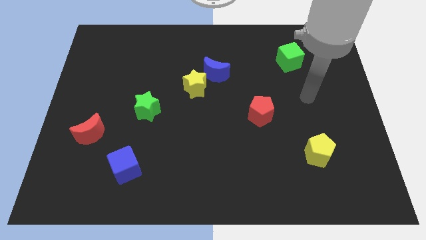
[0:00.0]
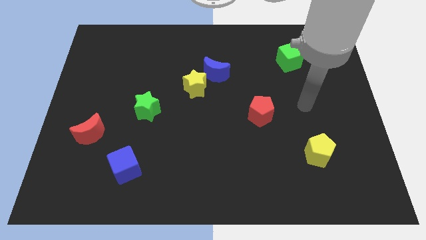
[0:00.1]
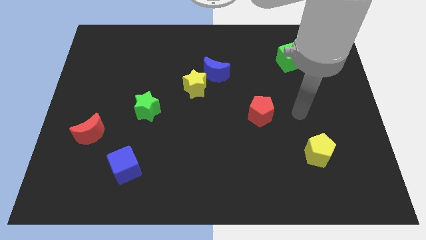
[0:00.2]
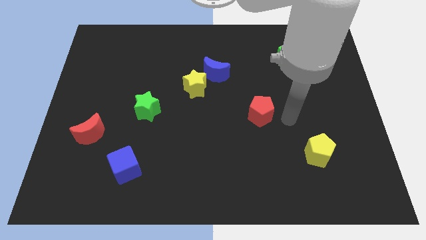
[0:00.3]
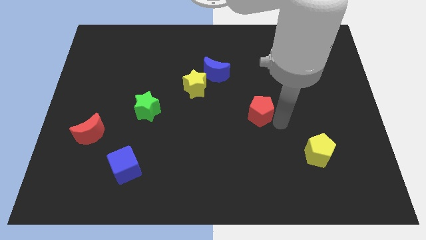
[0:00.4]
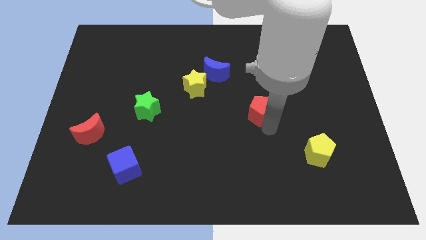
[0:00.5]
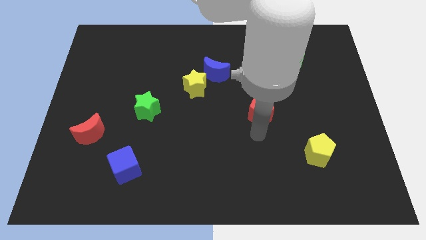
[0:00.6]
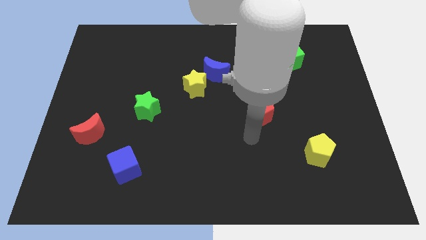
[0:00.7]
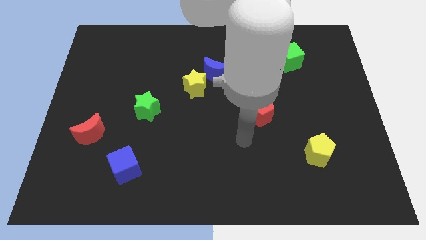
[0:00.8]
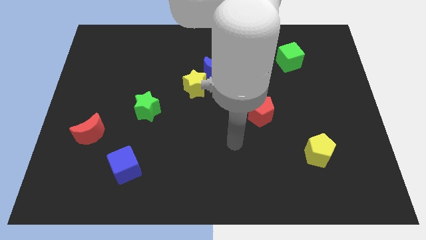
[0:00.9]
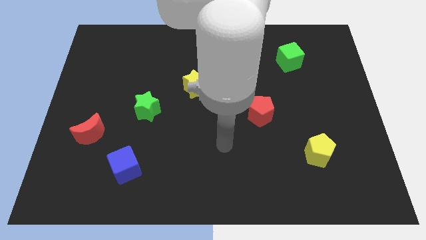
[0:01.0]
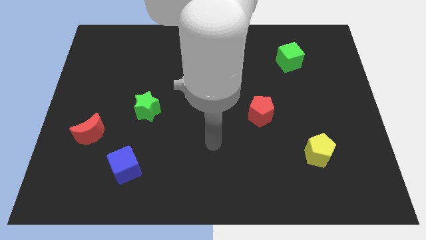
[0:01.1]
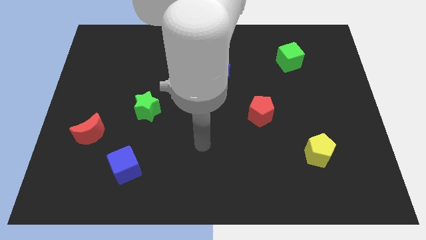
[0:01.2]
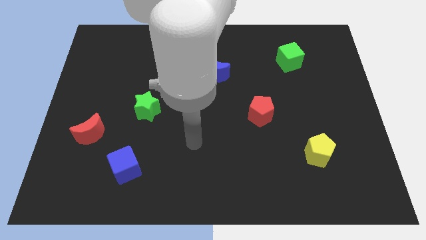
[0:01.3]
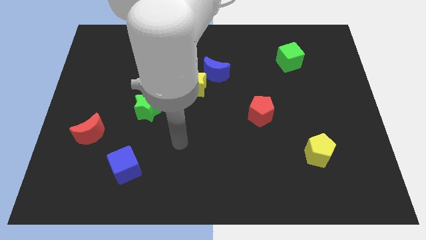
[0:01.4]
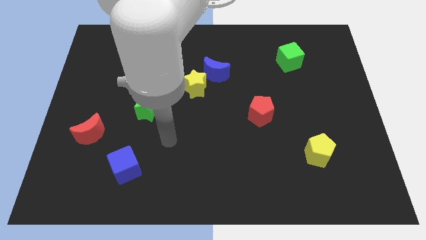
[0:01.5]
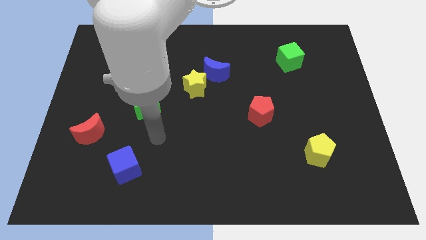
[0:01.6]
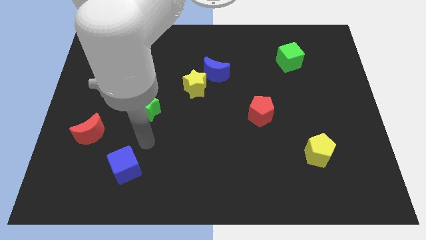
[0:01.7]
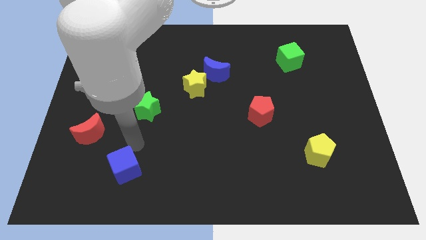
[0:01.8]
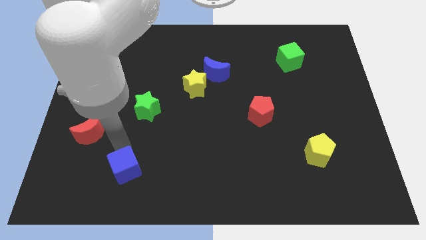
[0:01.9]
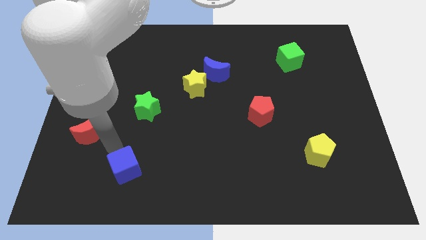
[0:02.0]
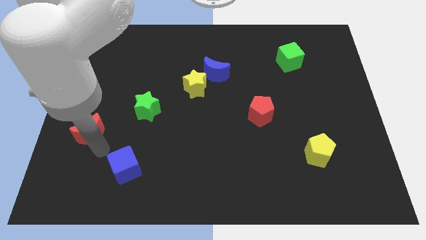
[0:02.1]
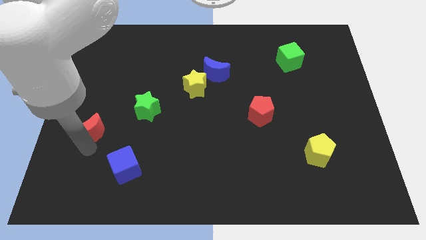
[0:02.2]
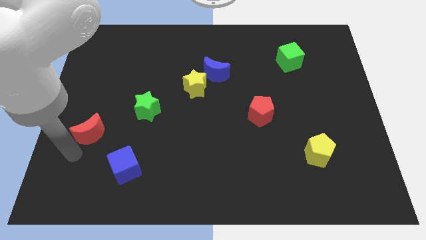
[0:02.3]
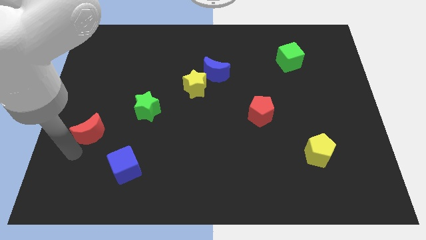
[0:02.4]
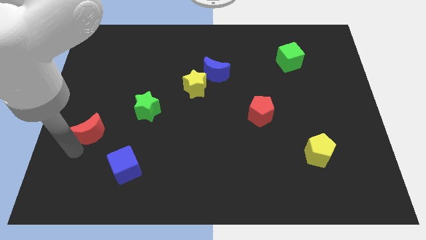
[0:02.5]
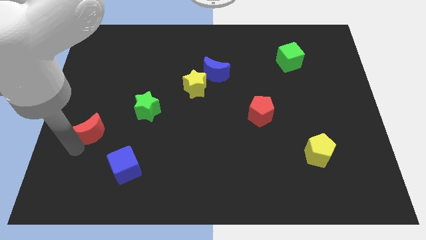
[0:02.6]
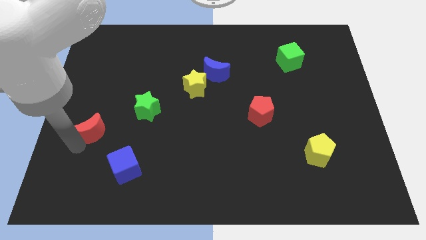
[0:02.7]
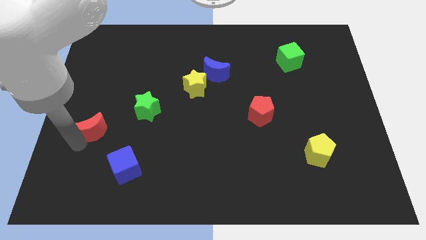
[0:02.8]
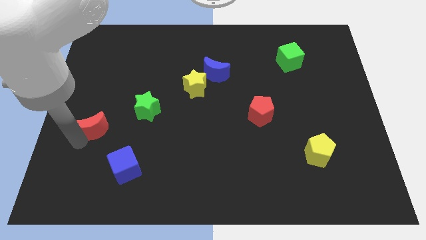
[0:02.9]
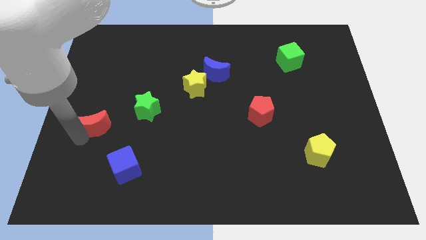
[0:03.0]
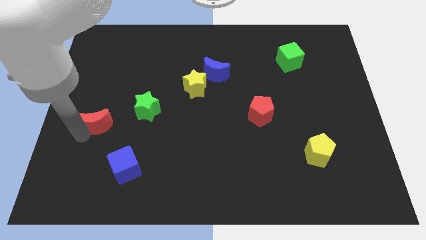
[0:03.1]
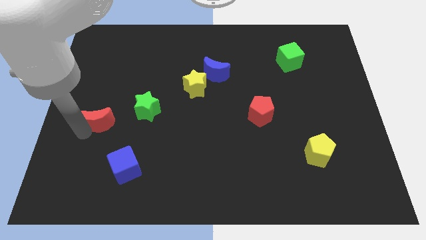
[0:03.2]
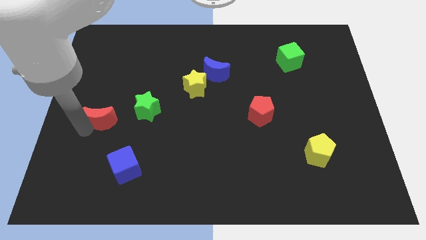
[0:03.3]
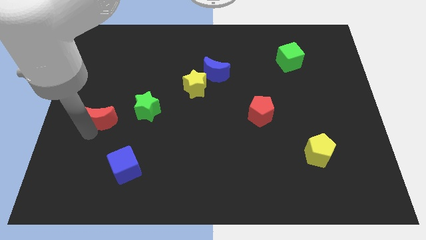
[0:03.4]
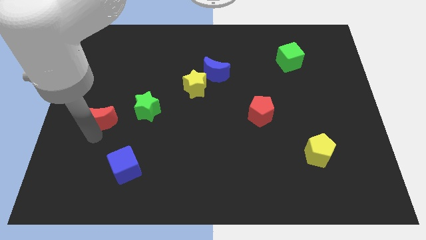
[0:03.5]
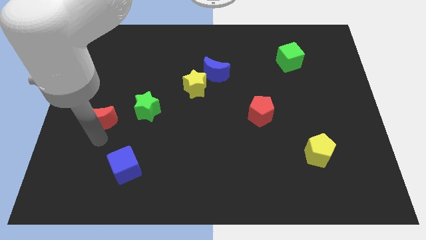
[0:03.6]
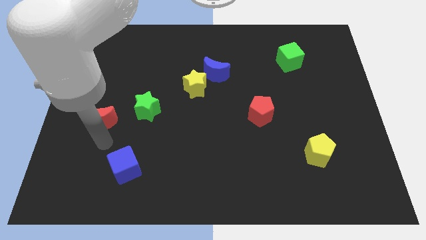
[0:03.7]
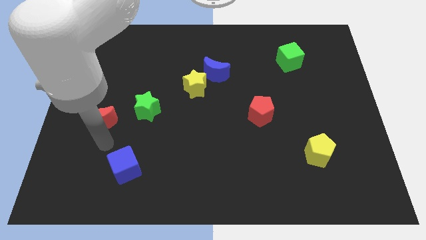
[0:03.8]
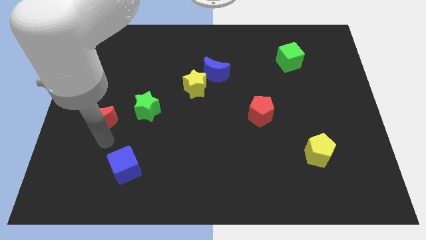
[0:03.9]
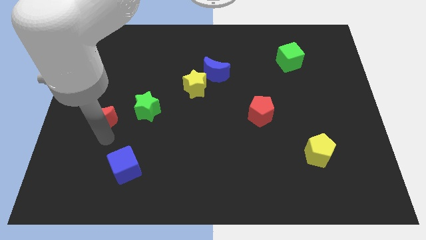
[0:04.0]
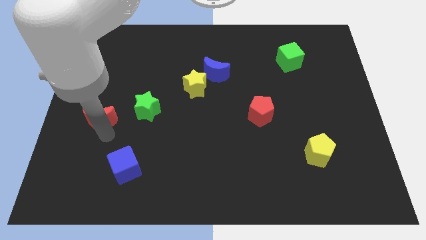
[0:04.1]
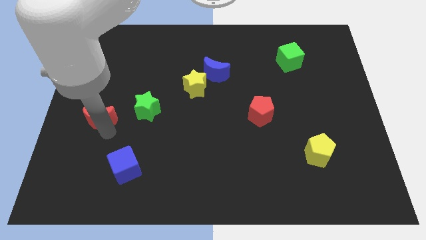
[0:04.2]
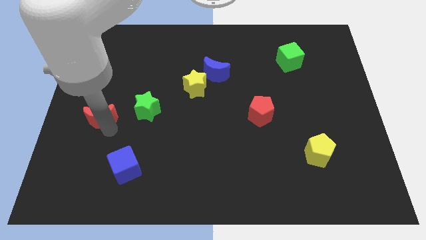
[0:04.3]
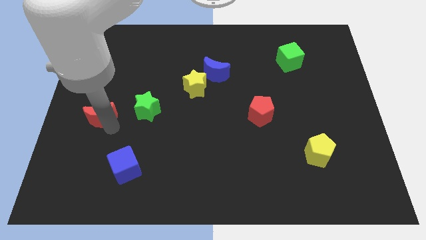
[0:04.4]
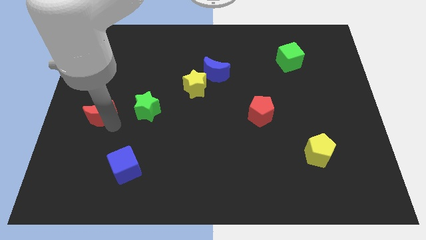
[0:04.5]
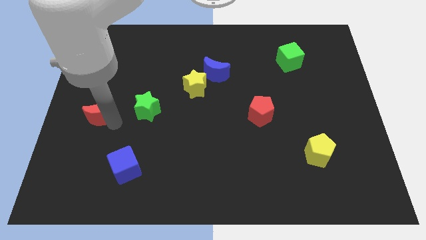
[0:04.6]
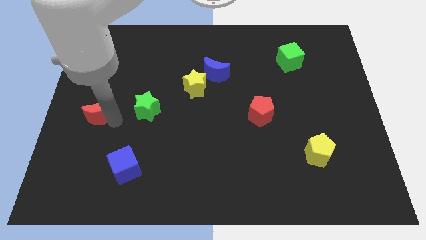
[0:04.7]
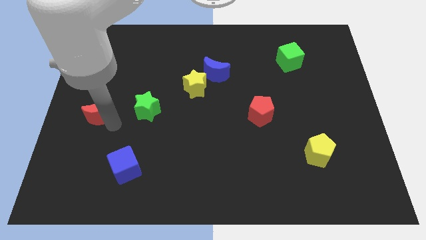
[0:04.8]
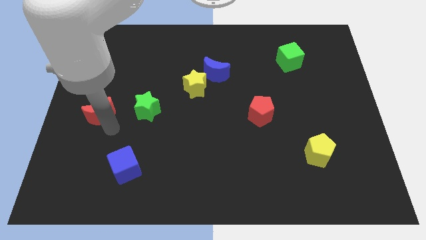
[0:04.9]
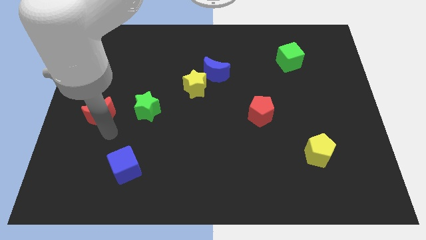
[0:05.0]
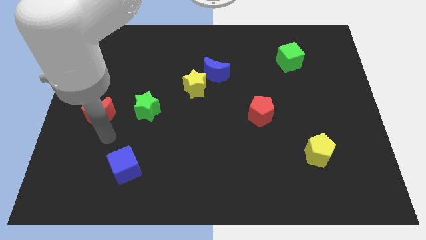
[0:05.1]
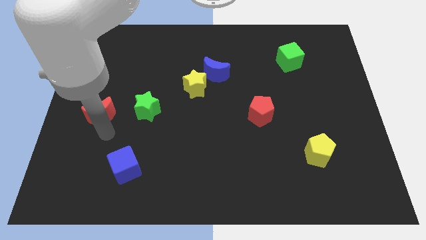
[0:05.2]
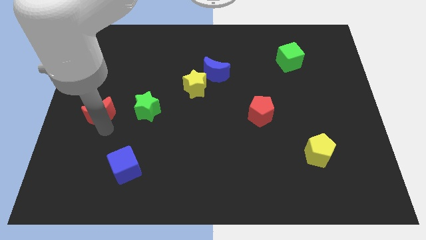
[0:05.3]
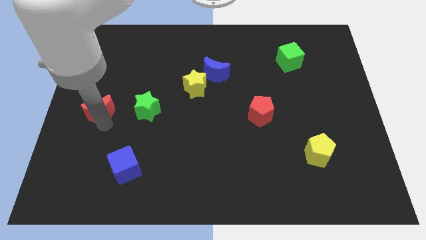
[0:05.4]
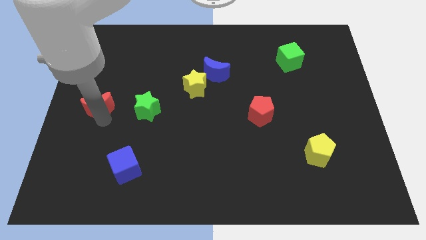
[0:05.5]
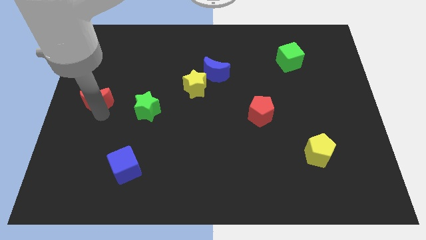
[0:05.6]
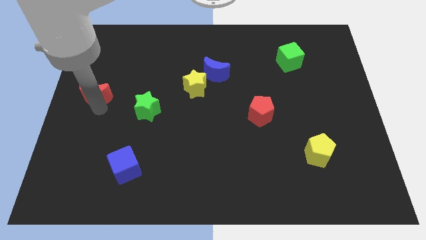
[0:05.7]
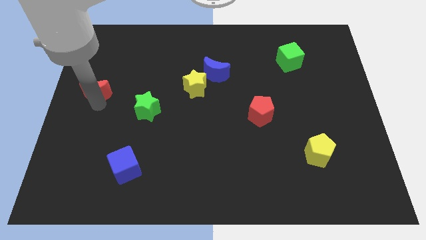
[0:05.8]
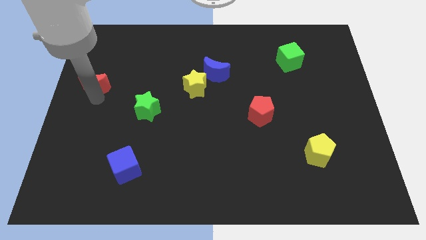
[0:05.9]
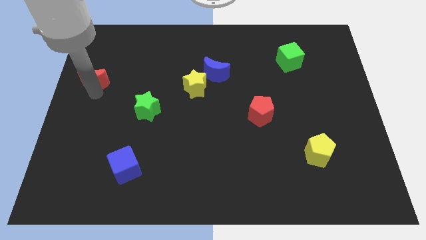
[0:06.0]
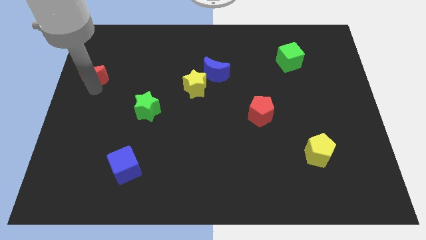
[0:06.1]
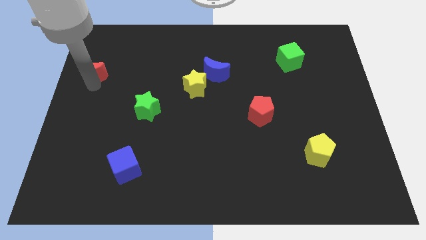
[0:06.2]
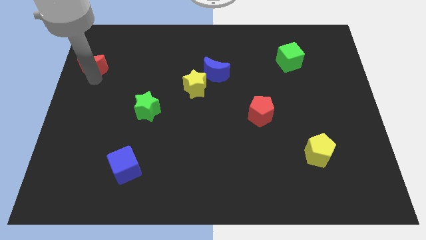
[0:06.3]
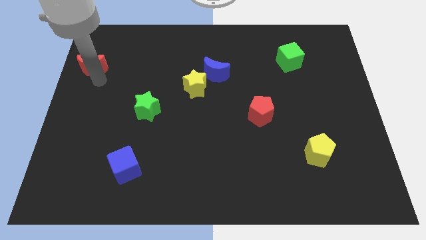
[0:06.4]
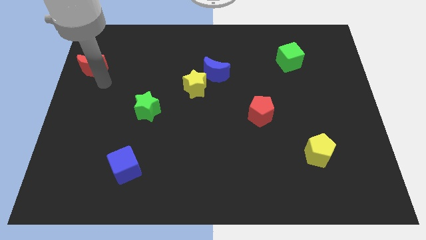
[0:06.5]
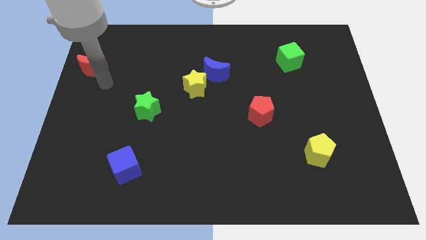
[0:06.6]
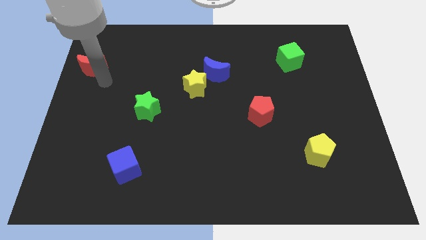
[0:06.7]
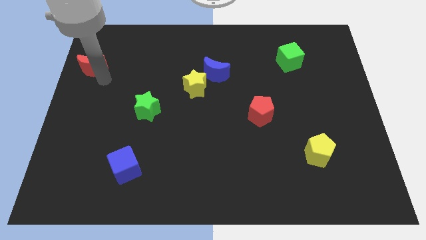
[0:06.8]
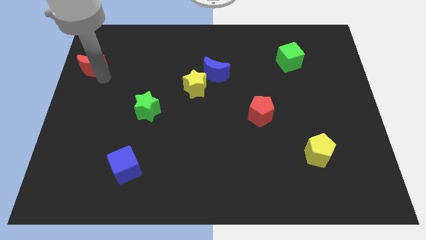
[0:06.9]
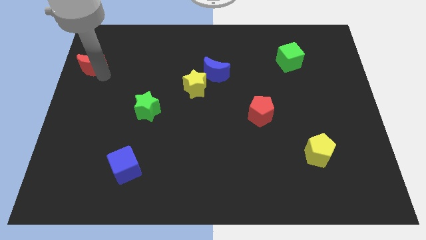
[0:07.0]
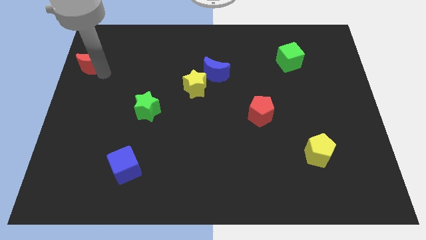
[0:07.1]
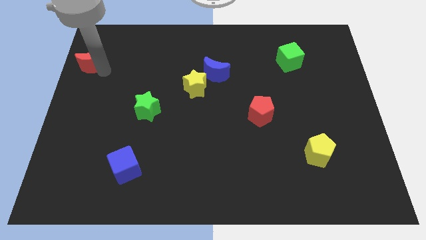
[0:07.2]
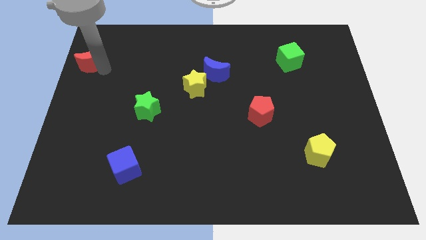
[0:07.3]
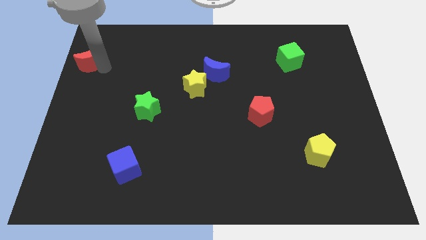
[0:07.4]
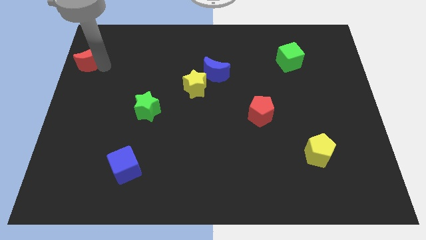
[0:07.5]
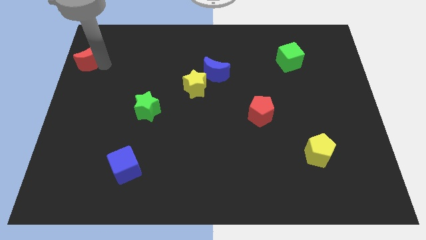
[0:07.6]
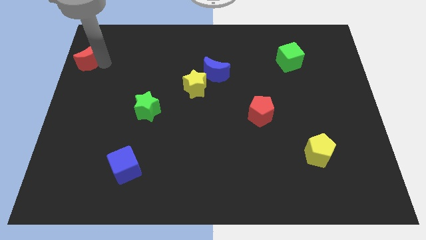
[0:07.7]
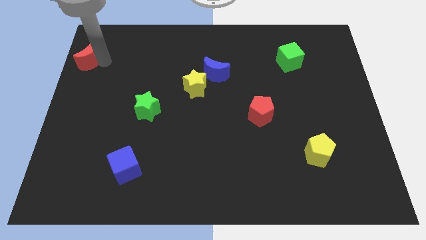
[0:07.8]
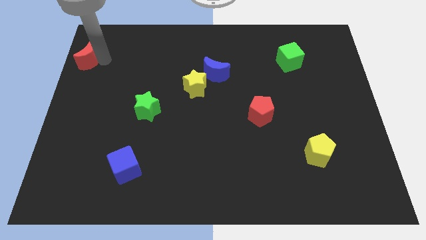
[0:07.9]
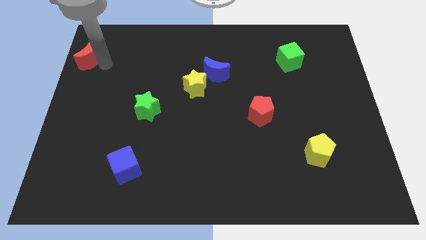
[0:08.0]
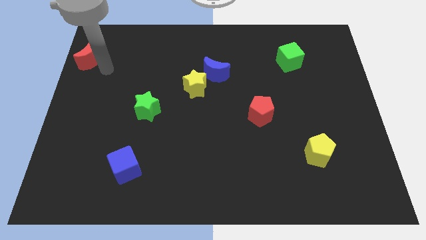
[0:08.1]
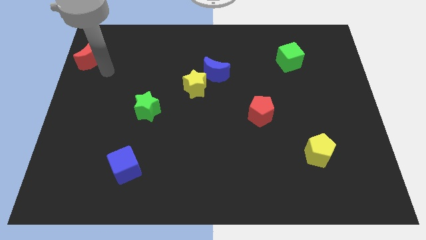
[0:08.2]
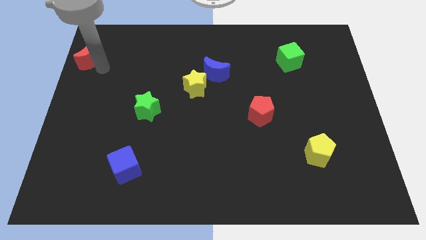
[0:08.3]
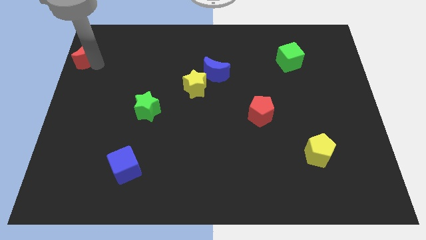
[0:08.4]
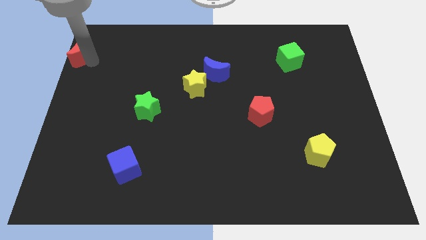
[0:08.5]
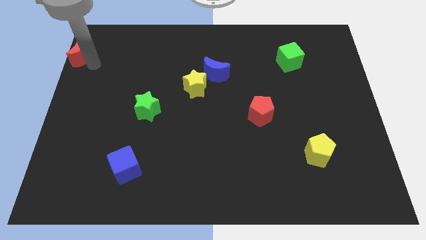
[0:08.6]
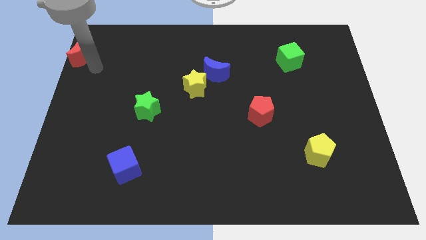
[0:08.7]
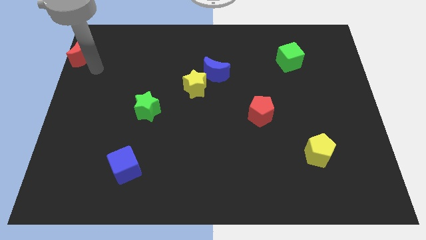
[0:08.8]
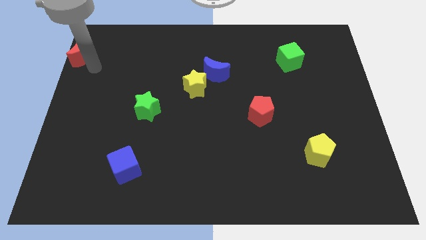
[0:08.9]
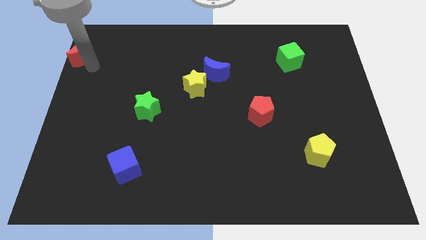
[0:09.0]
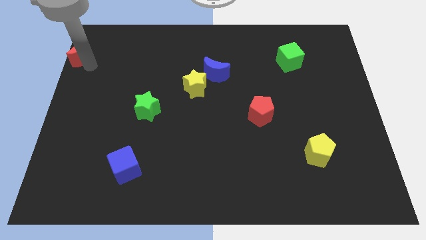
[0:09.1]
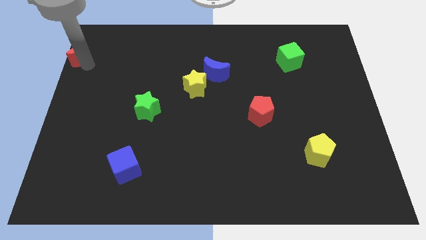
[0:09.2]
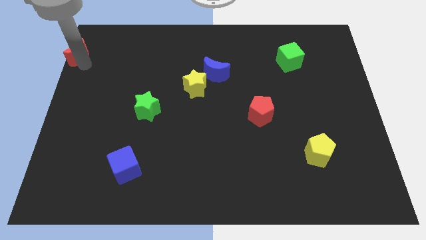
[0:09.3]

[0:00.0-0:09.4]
slide the red moon to the upper left corner
